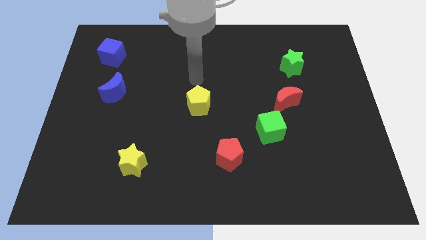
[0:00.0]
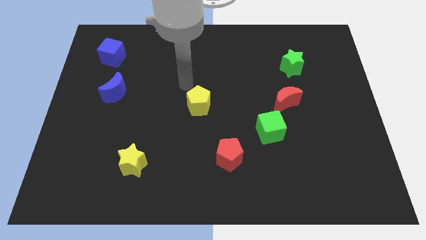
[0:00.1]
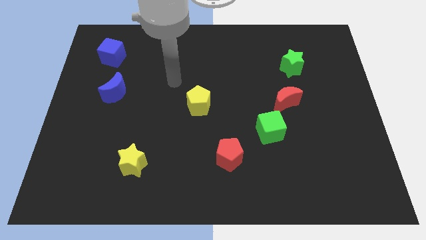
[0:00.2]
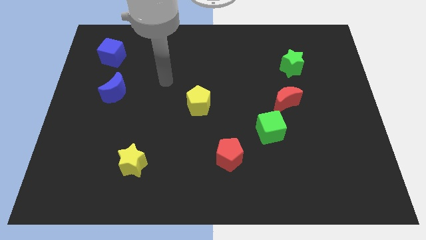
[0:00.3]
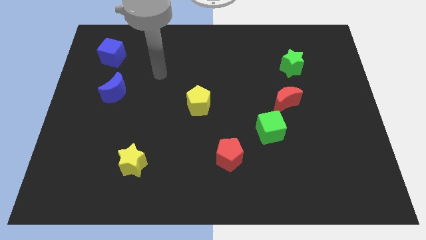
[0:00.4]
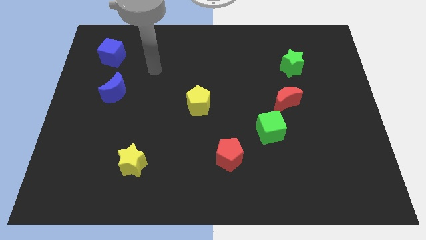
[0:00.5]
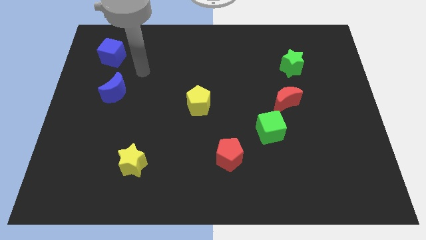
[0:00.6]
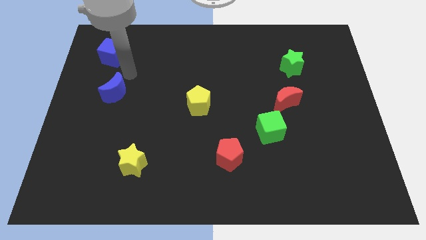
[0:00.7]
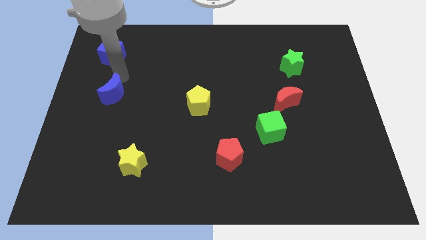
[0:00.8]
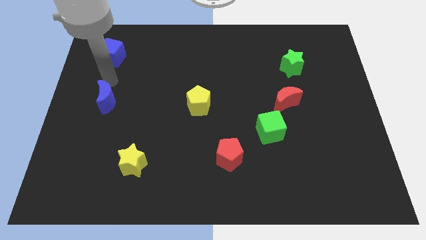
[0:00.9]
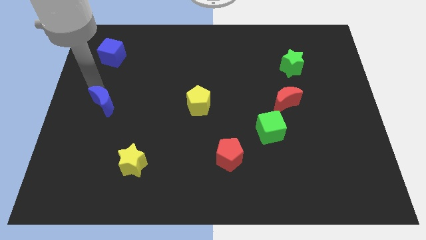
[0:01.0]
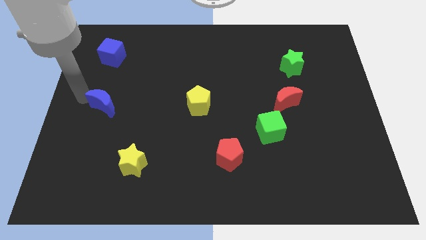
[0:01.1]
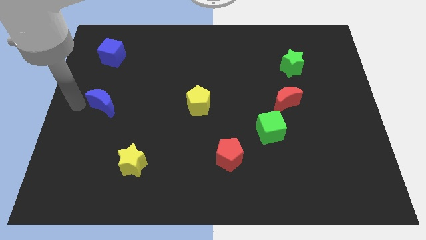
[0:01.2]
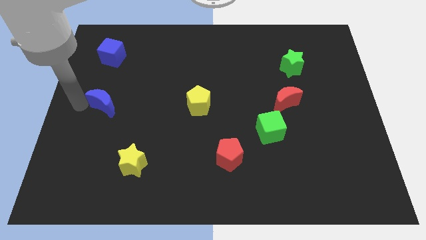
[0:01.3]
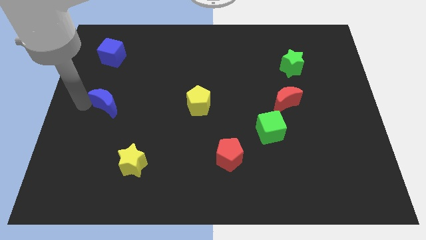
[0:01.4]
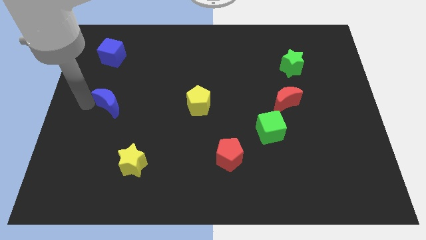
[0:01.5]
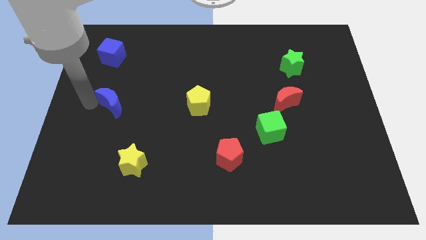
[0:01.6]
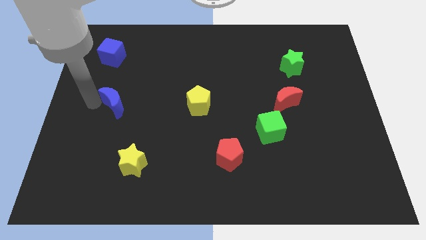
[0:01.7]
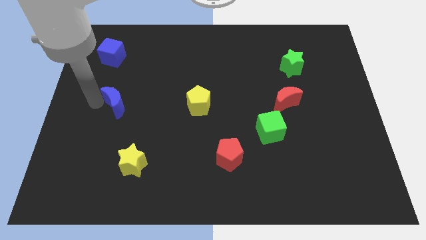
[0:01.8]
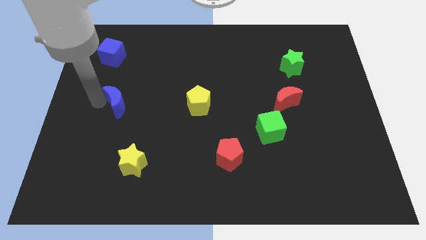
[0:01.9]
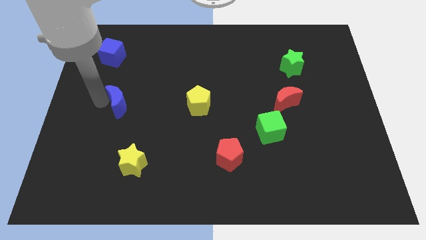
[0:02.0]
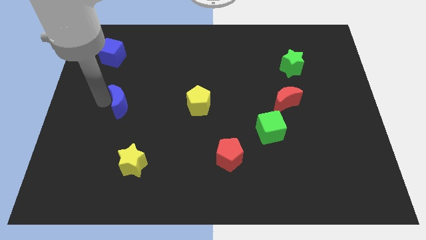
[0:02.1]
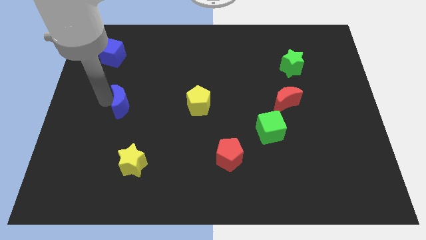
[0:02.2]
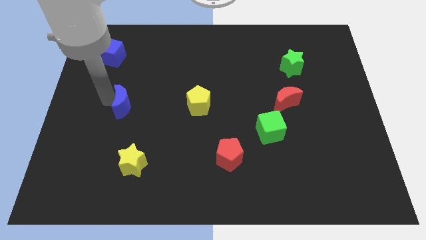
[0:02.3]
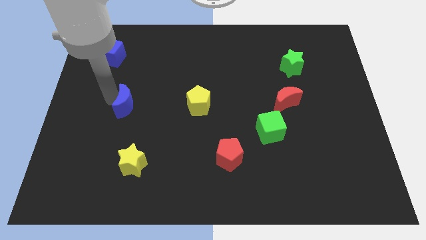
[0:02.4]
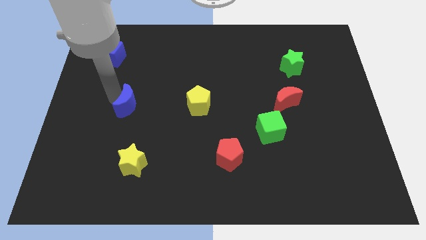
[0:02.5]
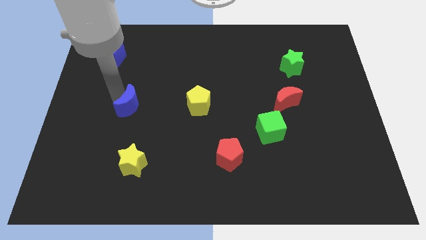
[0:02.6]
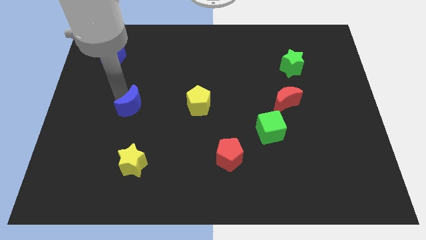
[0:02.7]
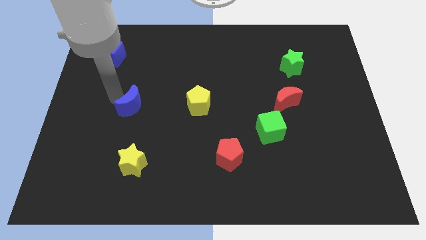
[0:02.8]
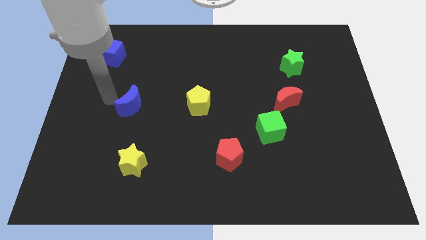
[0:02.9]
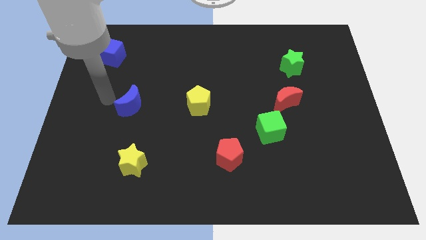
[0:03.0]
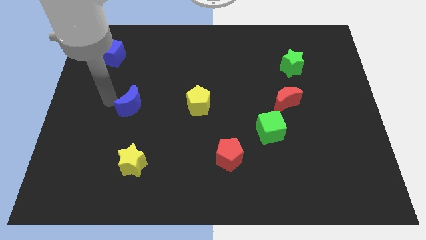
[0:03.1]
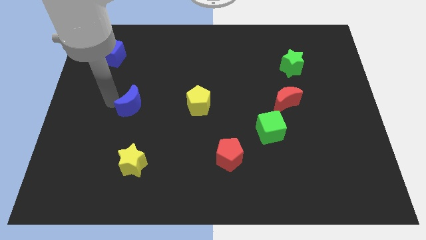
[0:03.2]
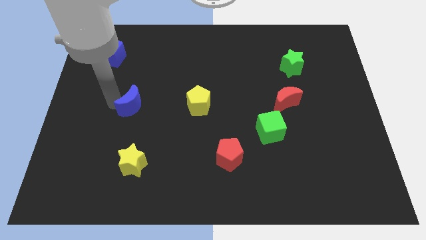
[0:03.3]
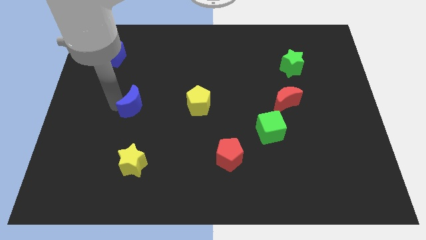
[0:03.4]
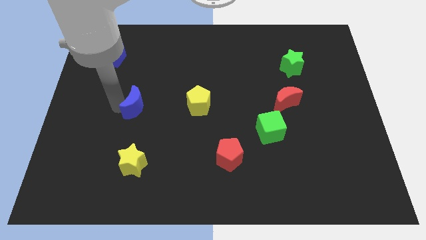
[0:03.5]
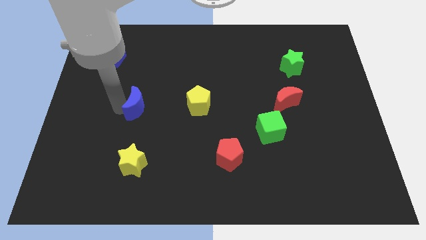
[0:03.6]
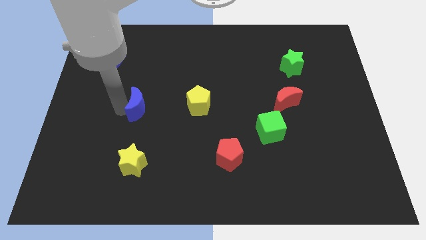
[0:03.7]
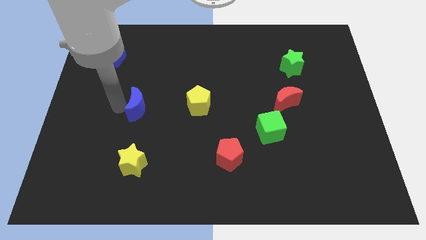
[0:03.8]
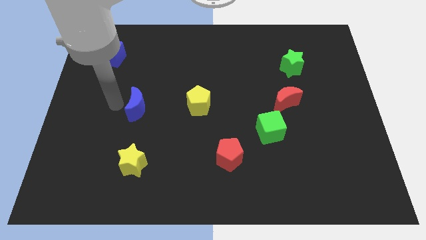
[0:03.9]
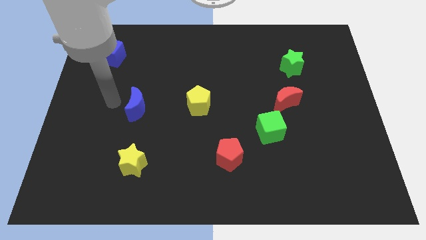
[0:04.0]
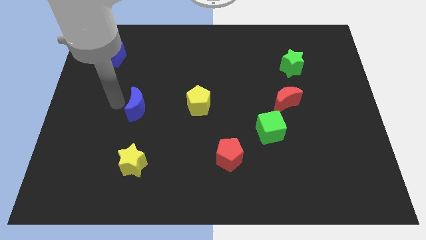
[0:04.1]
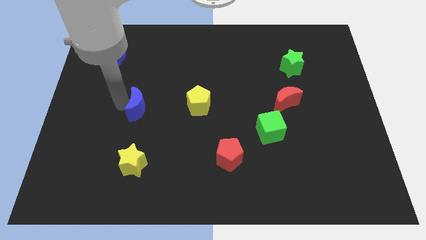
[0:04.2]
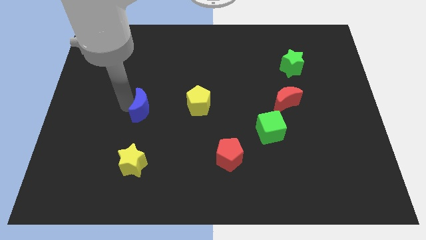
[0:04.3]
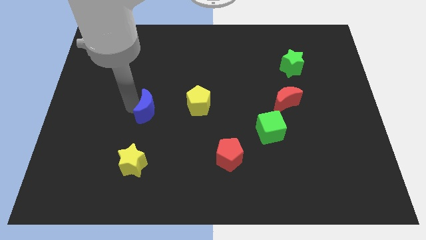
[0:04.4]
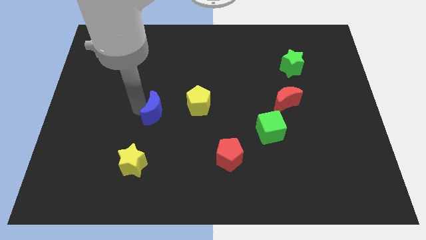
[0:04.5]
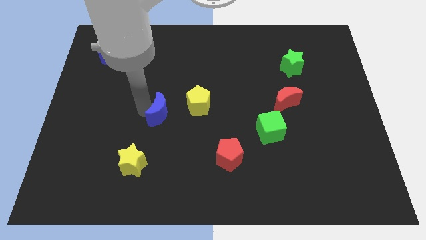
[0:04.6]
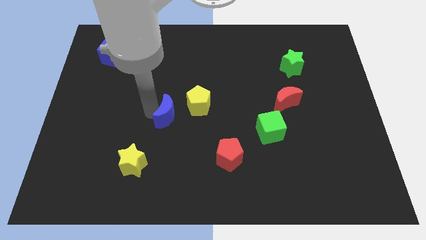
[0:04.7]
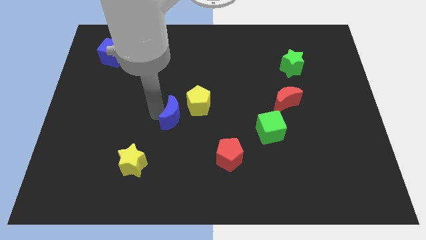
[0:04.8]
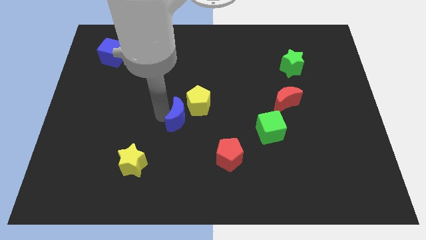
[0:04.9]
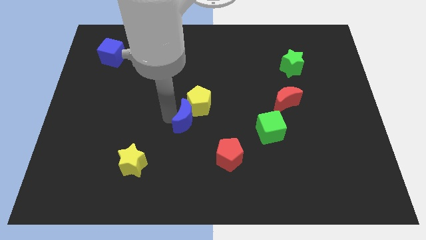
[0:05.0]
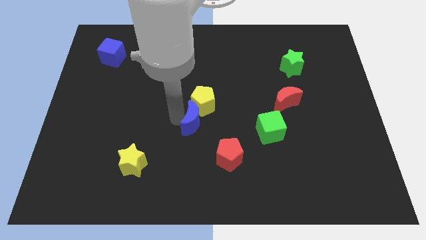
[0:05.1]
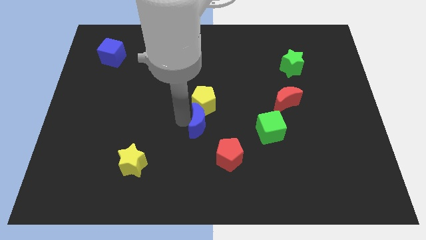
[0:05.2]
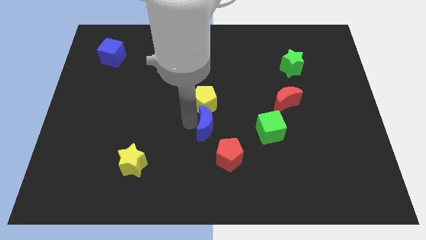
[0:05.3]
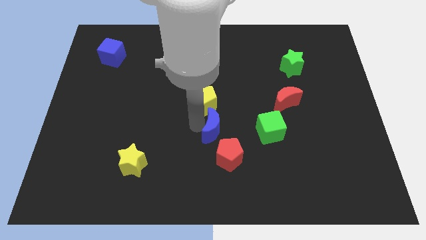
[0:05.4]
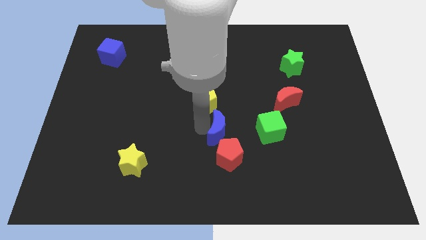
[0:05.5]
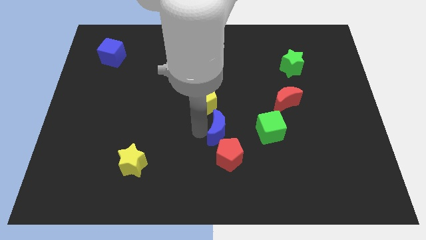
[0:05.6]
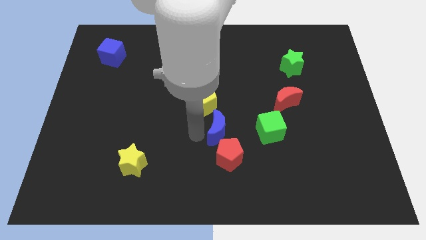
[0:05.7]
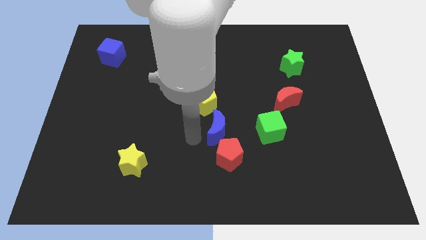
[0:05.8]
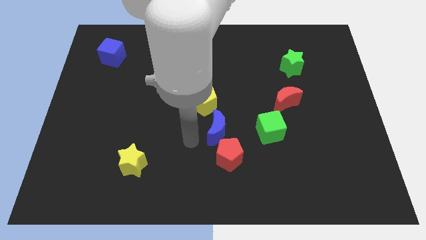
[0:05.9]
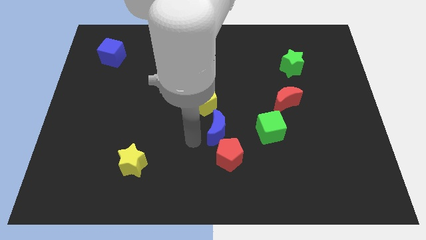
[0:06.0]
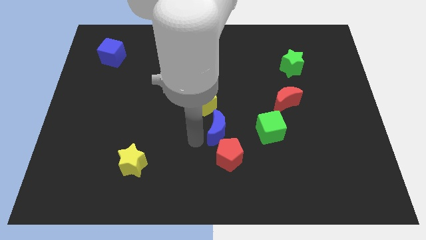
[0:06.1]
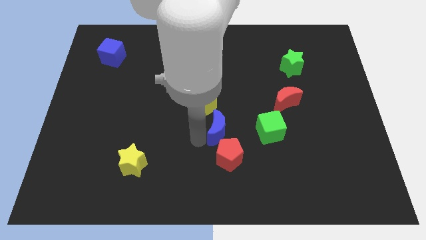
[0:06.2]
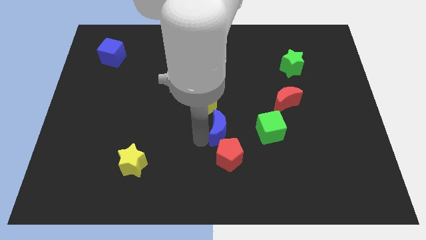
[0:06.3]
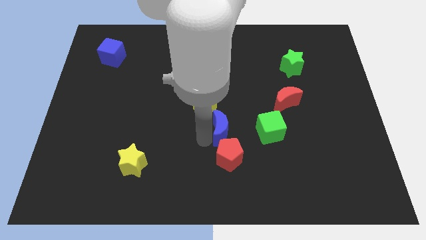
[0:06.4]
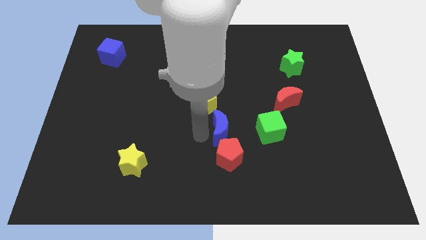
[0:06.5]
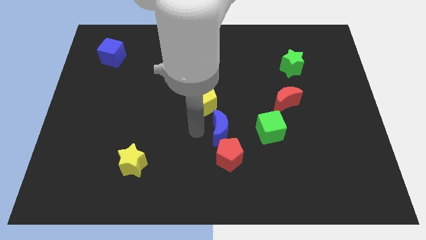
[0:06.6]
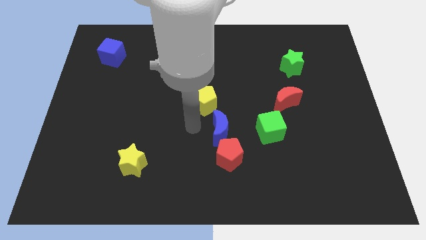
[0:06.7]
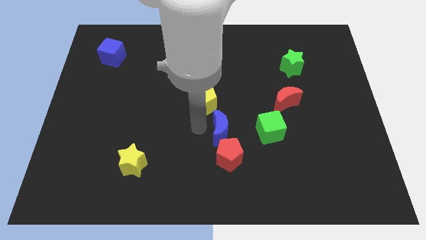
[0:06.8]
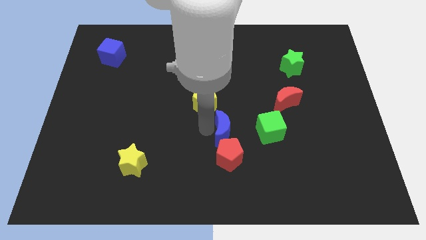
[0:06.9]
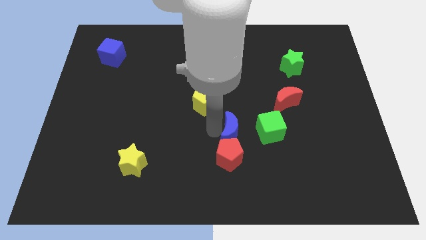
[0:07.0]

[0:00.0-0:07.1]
slide the blue moon to the top right side of the red pentagon

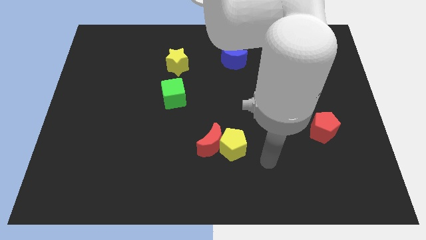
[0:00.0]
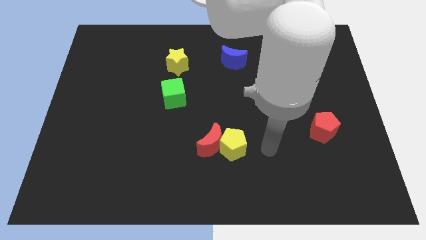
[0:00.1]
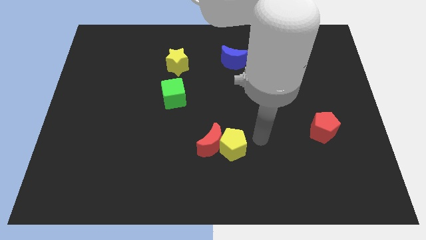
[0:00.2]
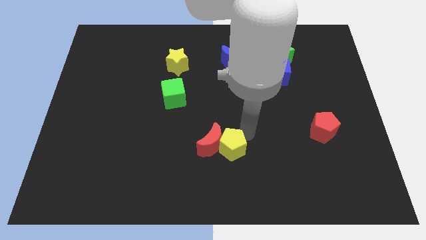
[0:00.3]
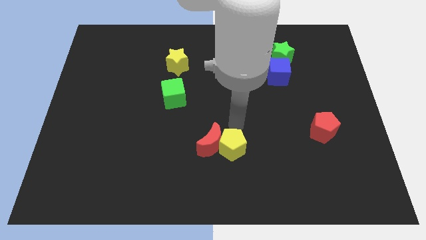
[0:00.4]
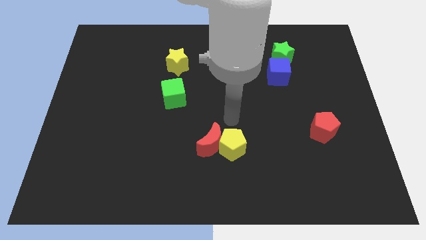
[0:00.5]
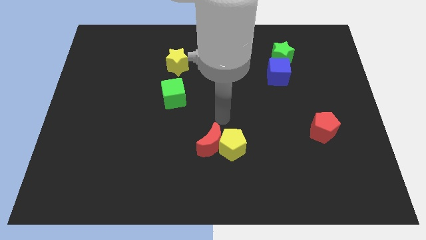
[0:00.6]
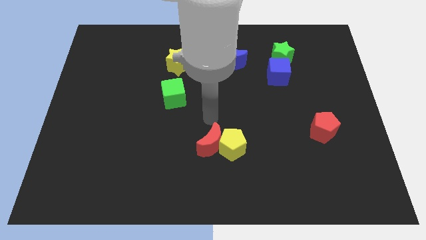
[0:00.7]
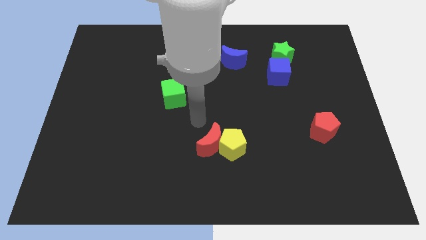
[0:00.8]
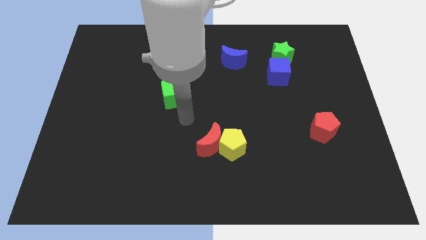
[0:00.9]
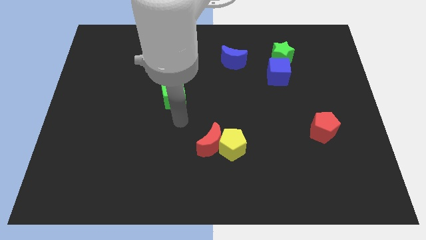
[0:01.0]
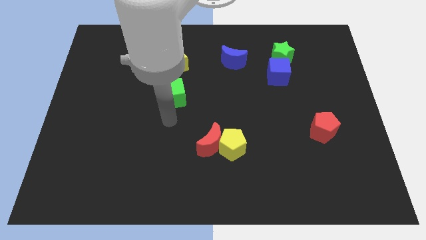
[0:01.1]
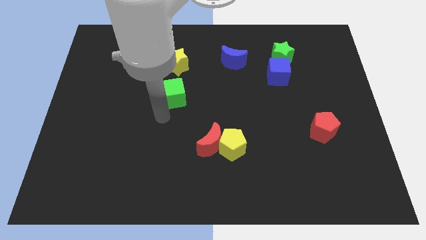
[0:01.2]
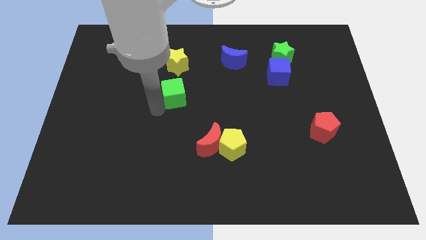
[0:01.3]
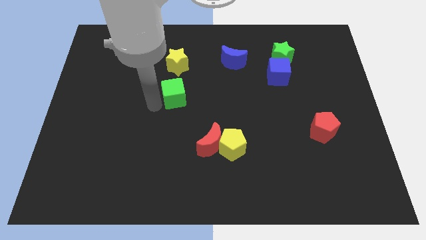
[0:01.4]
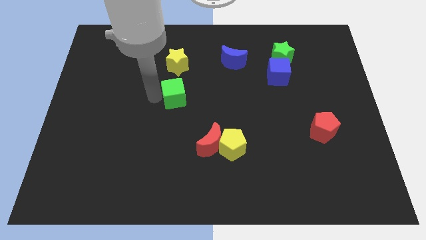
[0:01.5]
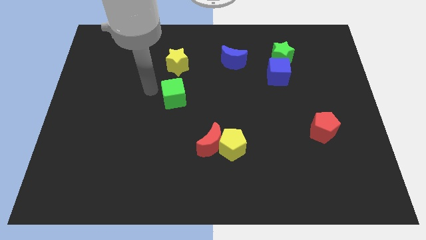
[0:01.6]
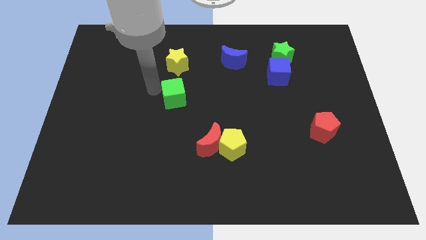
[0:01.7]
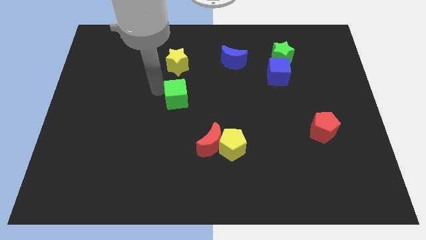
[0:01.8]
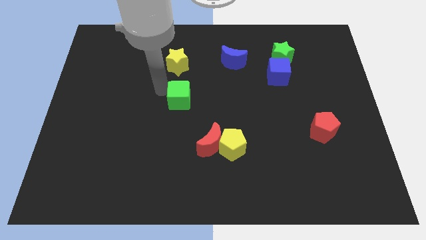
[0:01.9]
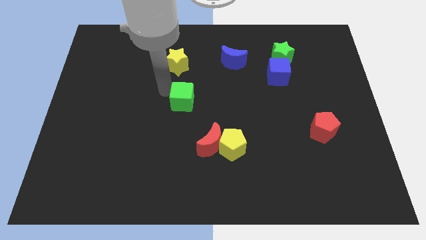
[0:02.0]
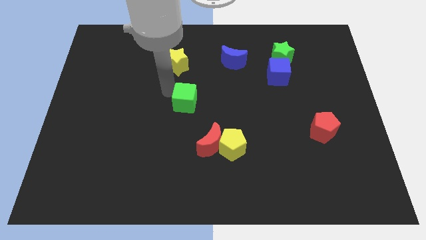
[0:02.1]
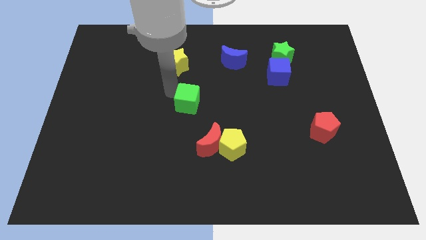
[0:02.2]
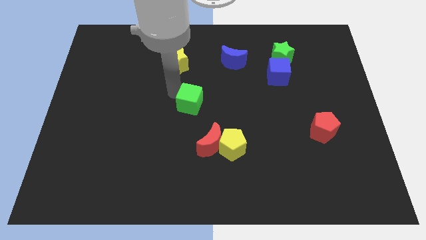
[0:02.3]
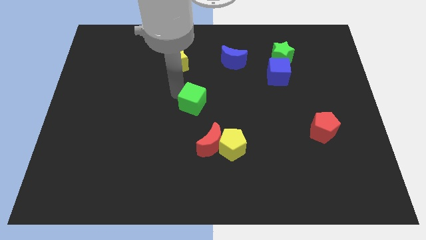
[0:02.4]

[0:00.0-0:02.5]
put the green cube above the red moon
